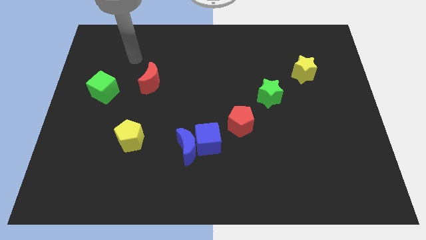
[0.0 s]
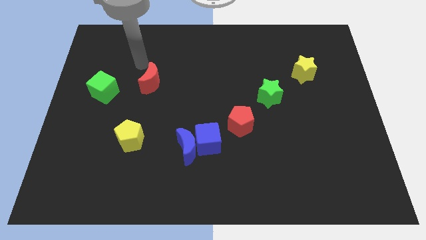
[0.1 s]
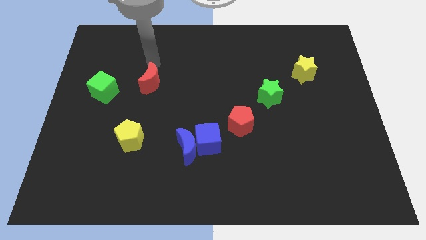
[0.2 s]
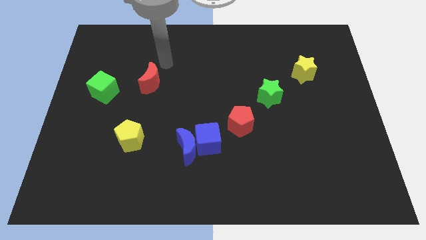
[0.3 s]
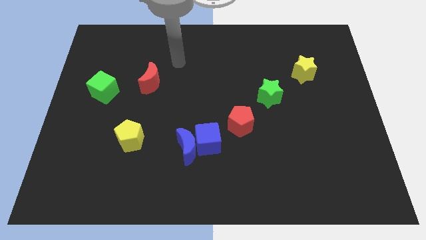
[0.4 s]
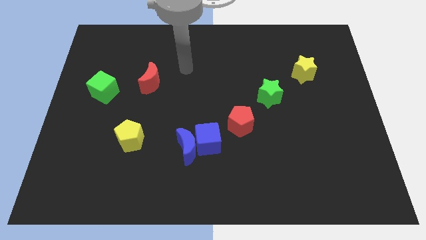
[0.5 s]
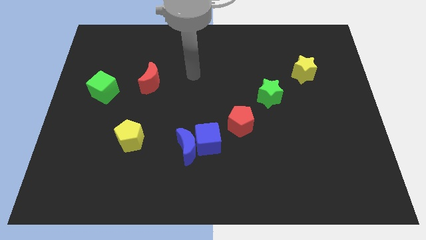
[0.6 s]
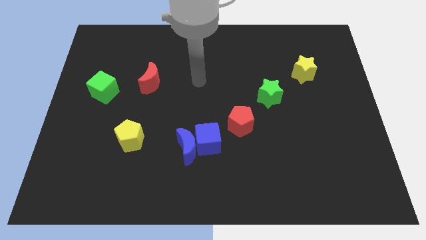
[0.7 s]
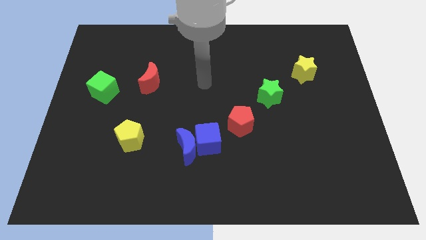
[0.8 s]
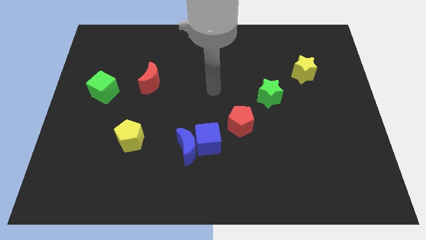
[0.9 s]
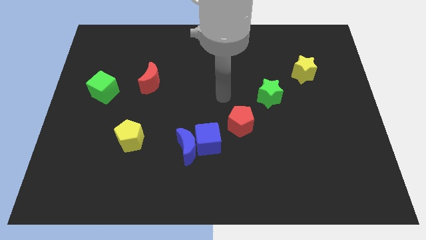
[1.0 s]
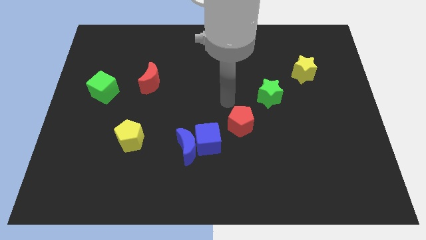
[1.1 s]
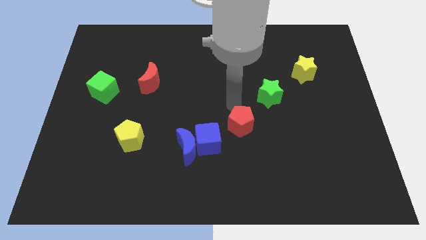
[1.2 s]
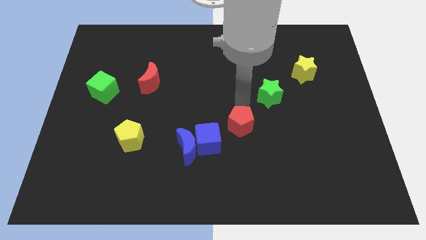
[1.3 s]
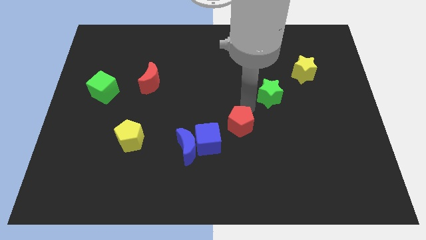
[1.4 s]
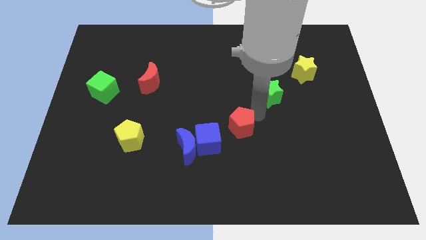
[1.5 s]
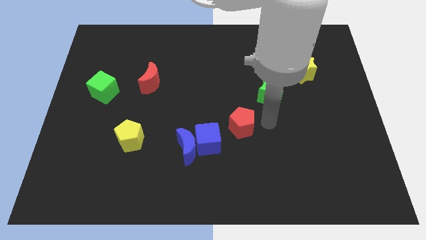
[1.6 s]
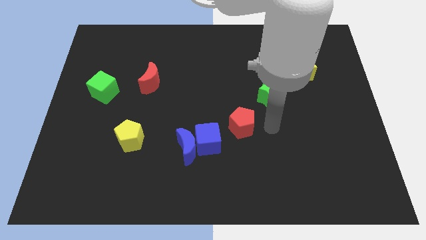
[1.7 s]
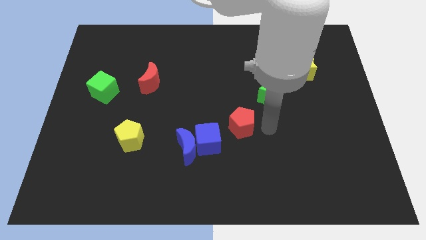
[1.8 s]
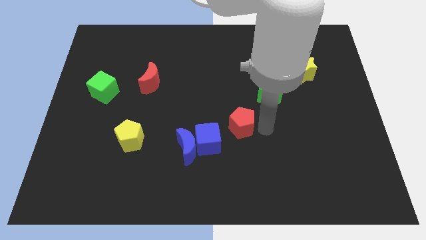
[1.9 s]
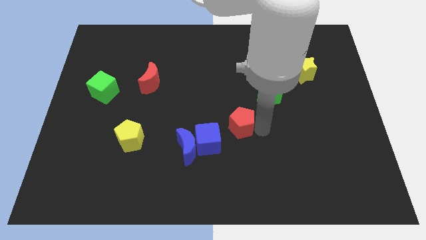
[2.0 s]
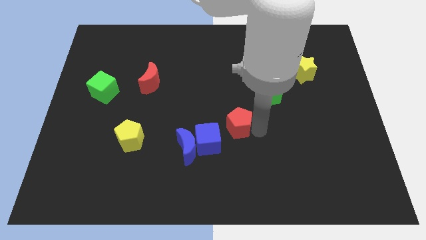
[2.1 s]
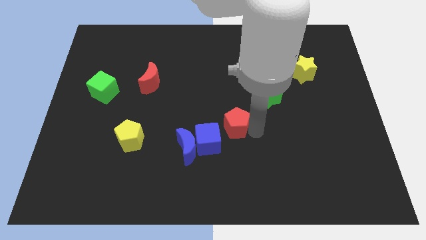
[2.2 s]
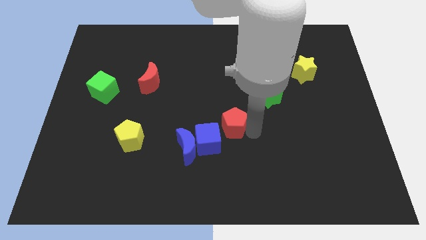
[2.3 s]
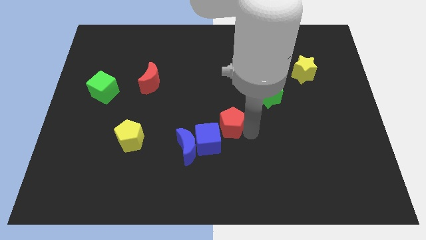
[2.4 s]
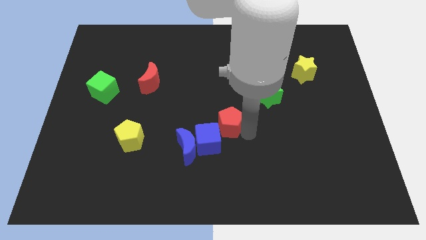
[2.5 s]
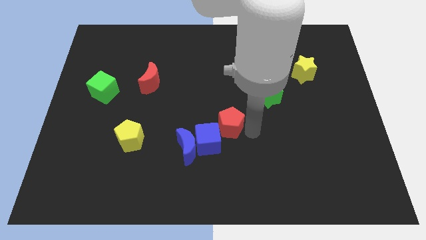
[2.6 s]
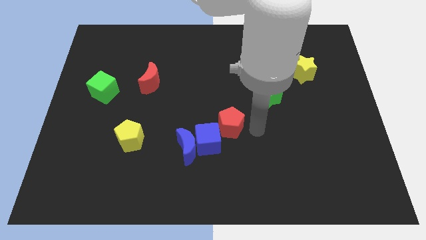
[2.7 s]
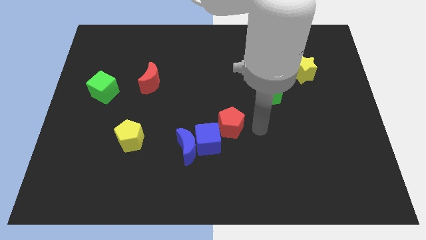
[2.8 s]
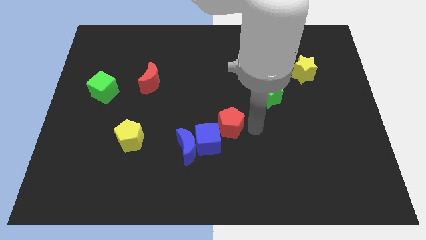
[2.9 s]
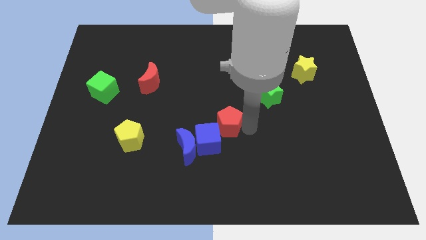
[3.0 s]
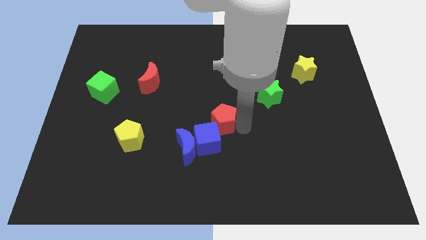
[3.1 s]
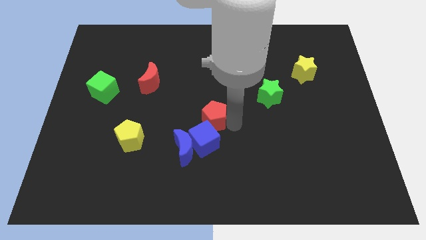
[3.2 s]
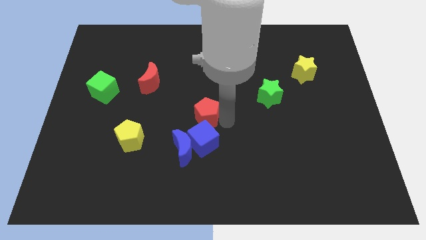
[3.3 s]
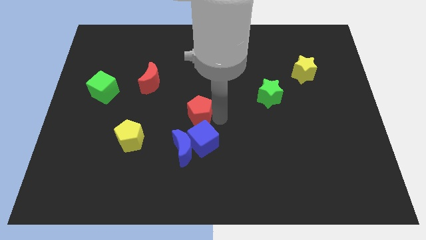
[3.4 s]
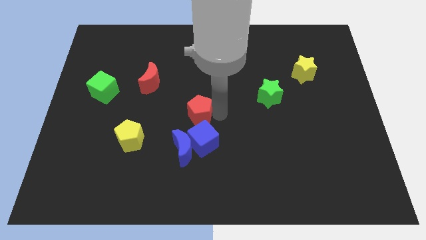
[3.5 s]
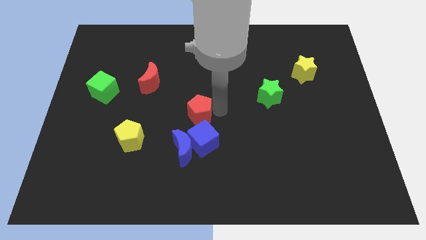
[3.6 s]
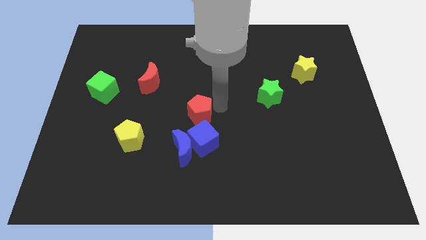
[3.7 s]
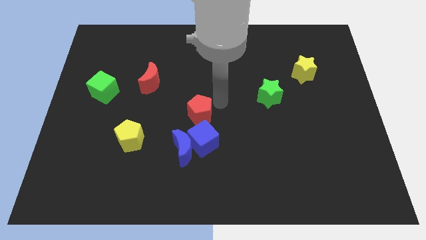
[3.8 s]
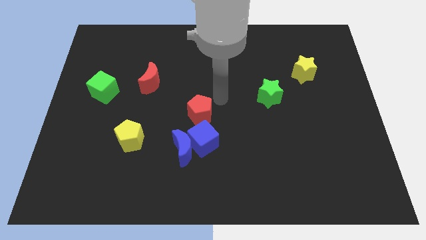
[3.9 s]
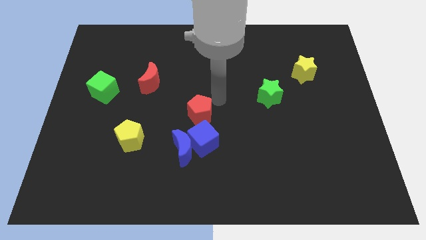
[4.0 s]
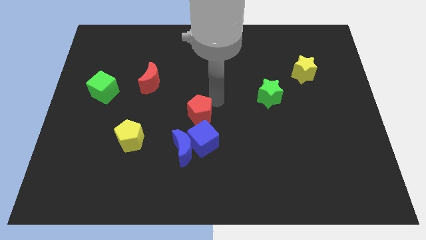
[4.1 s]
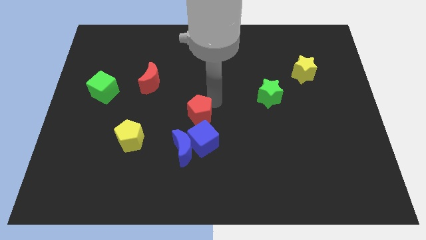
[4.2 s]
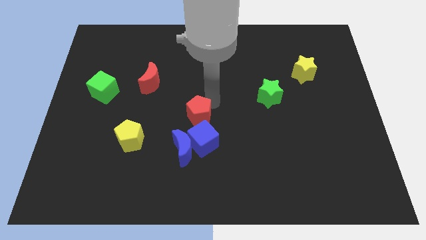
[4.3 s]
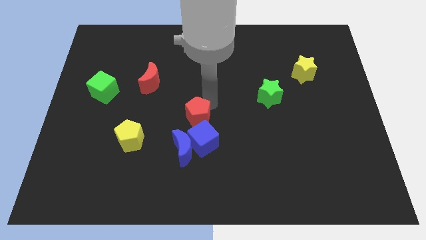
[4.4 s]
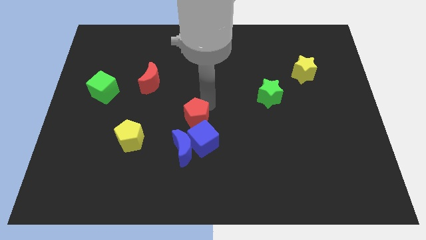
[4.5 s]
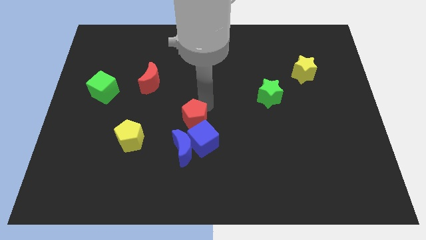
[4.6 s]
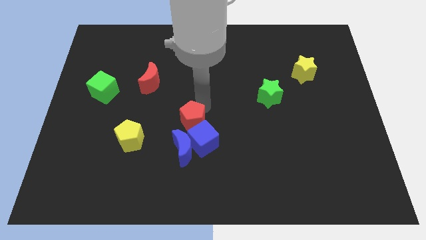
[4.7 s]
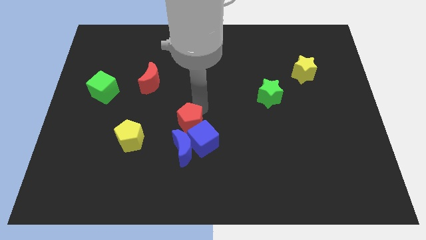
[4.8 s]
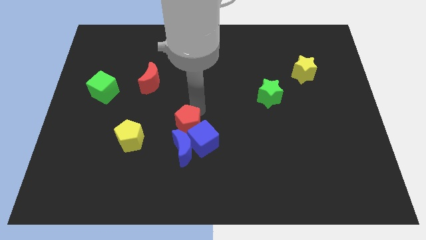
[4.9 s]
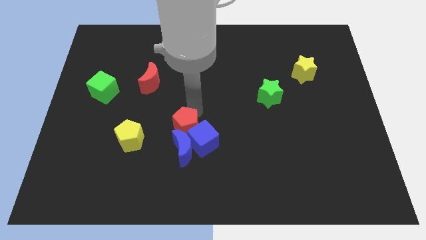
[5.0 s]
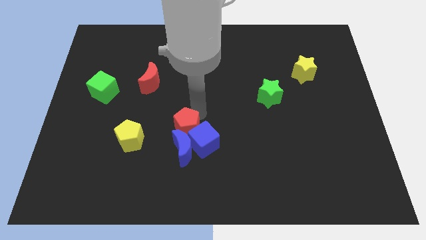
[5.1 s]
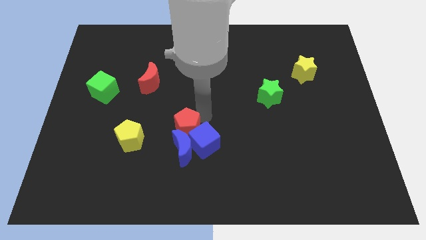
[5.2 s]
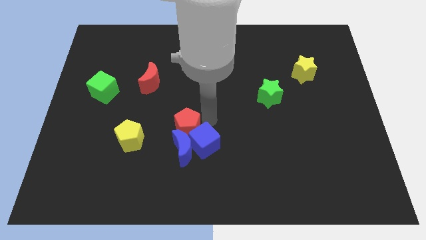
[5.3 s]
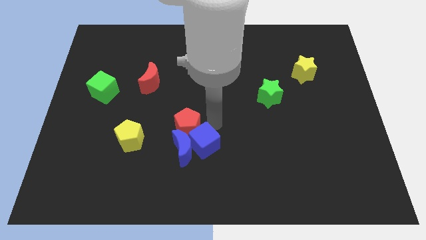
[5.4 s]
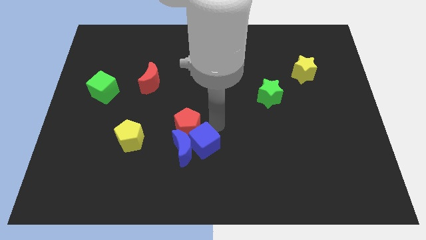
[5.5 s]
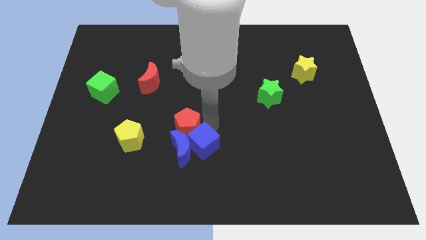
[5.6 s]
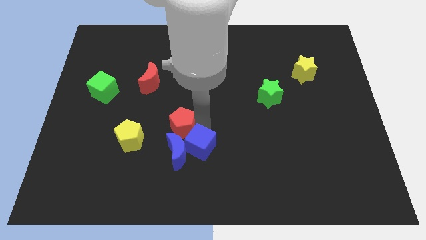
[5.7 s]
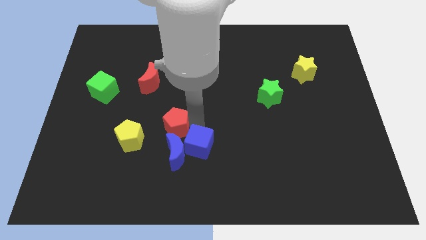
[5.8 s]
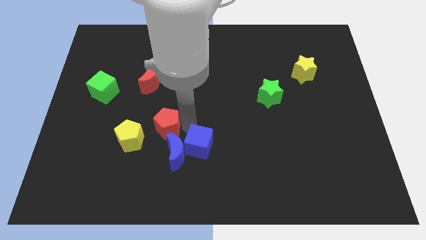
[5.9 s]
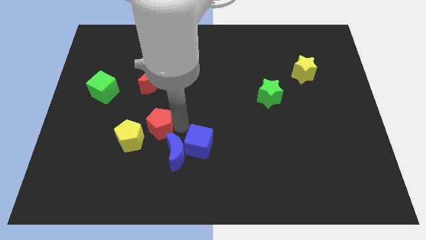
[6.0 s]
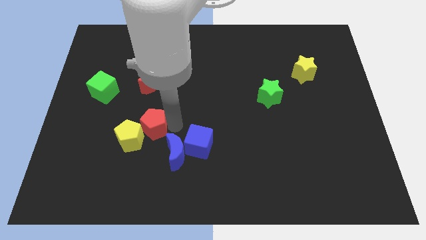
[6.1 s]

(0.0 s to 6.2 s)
put the red pentagon to the yellow pentagon

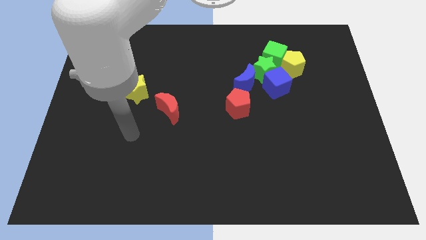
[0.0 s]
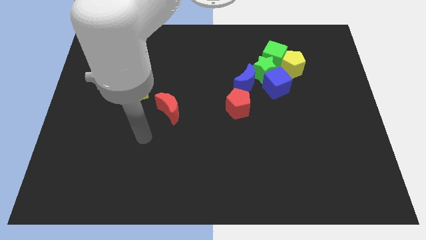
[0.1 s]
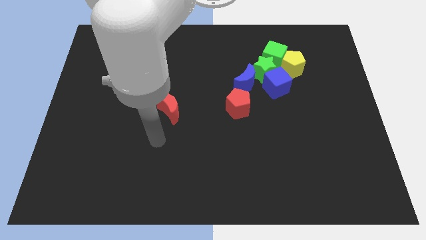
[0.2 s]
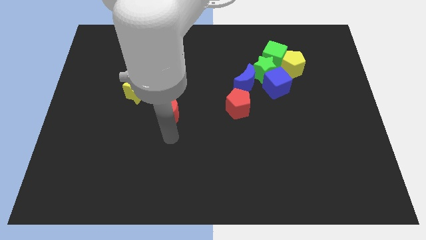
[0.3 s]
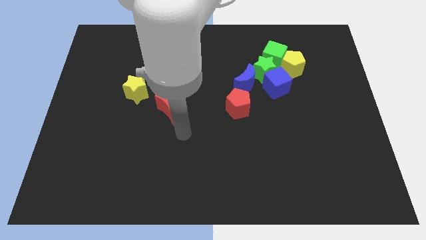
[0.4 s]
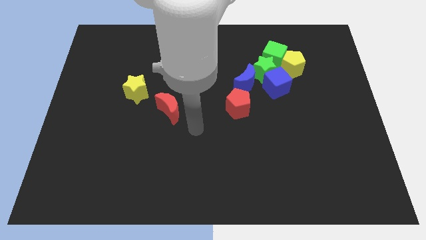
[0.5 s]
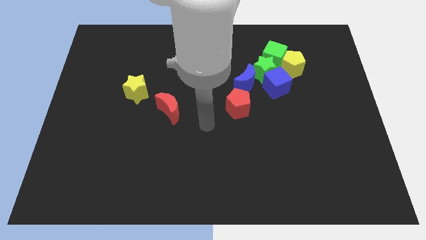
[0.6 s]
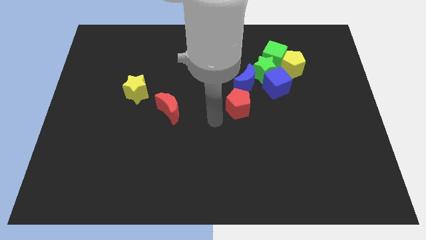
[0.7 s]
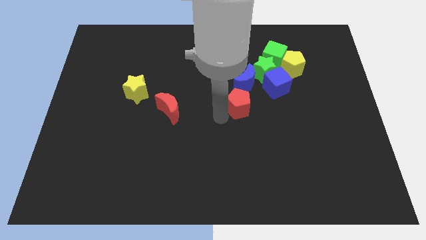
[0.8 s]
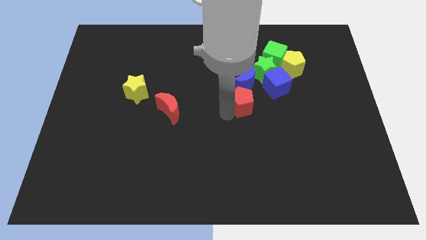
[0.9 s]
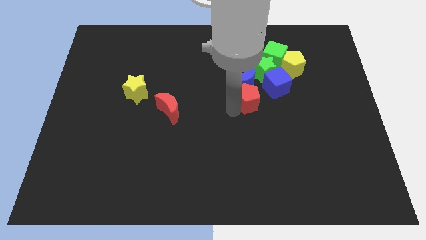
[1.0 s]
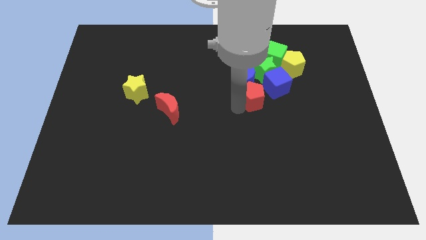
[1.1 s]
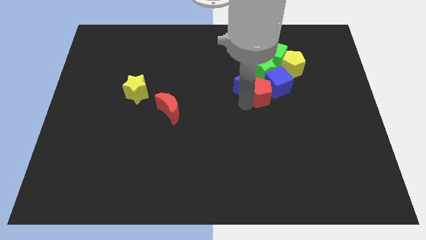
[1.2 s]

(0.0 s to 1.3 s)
put the red pentagon to the blue cube
